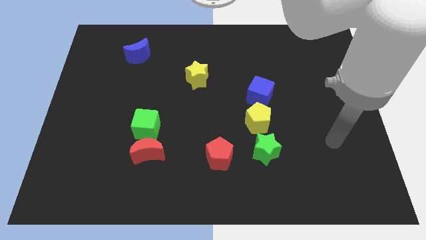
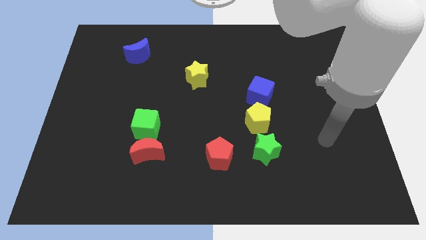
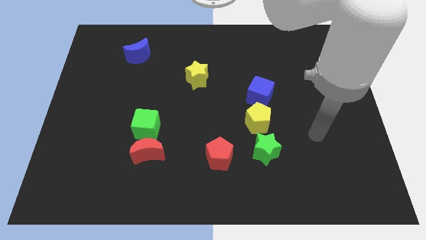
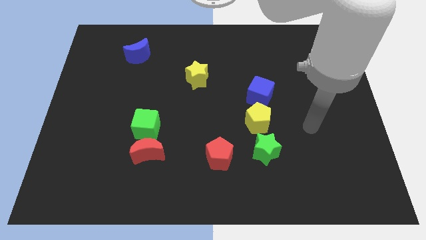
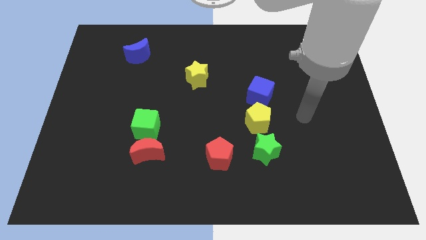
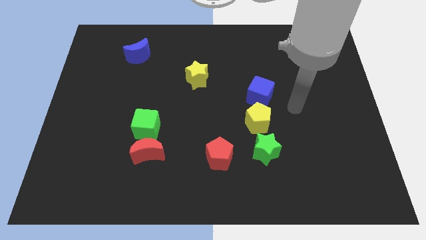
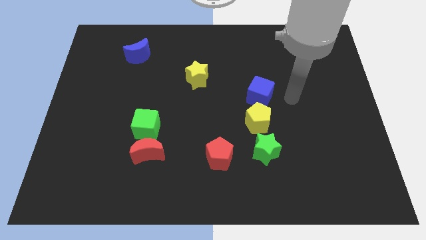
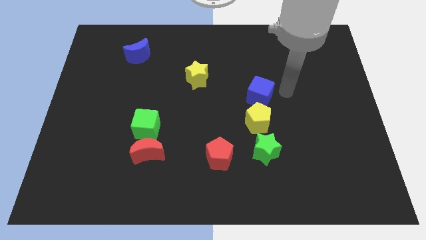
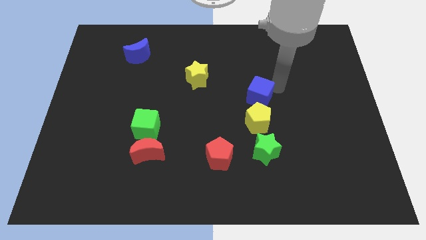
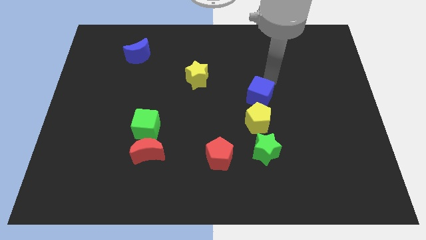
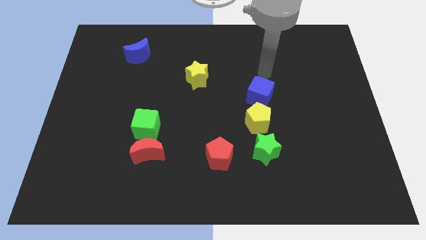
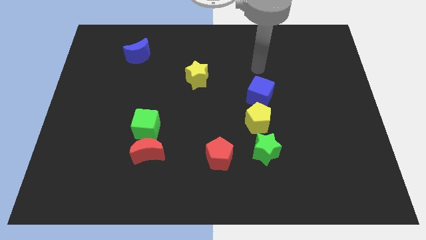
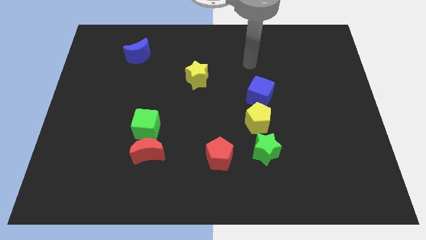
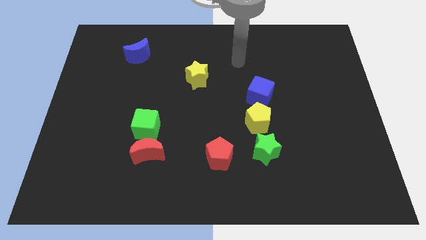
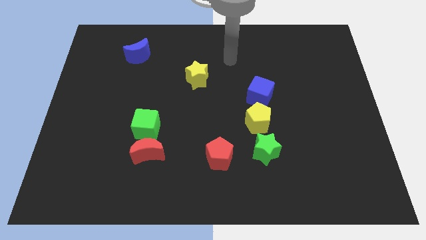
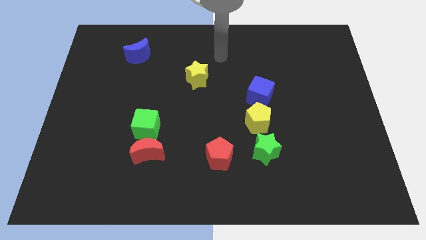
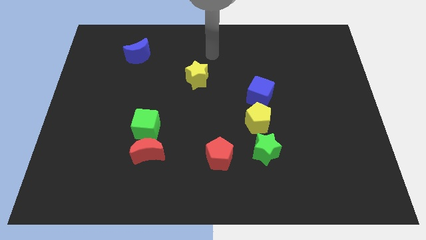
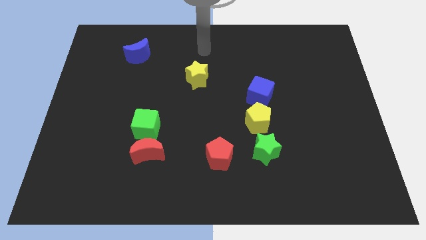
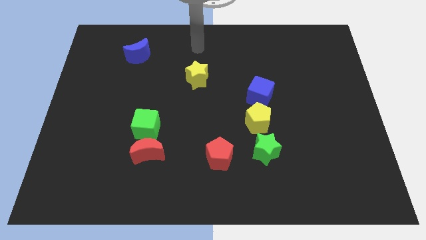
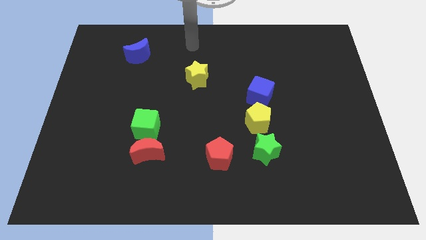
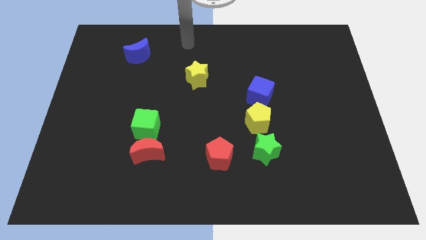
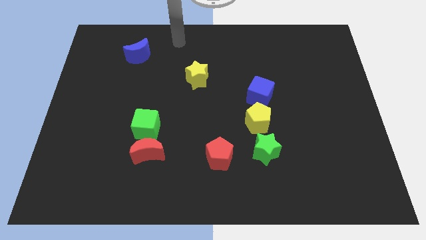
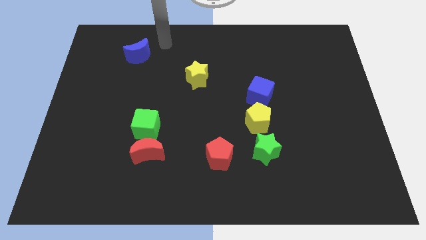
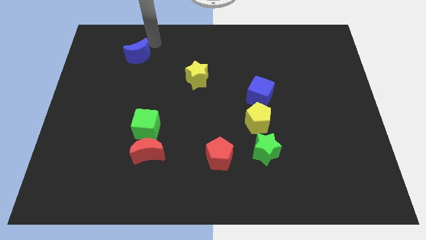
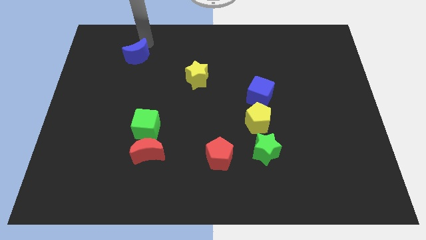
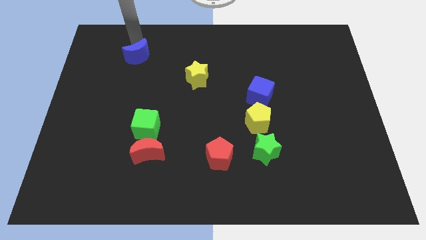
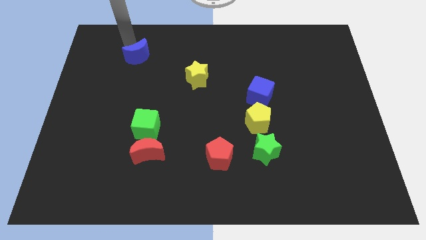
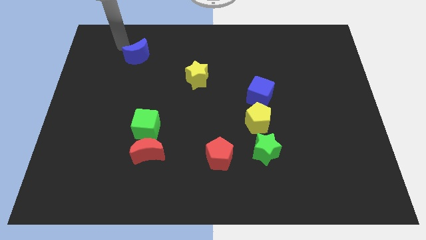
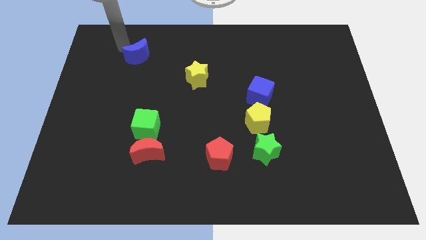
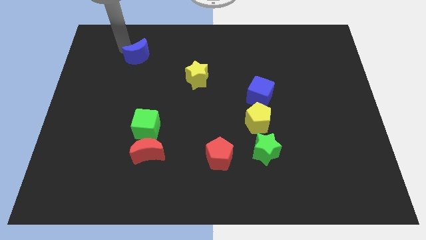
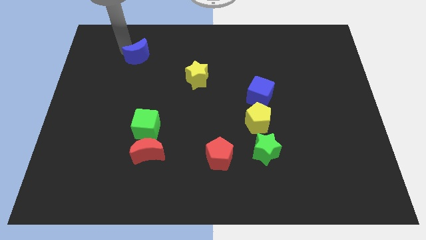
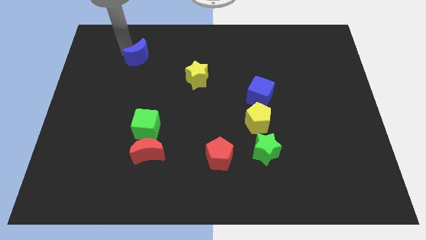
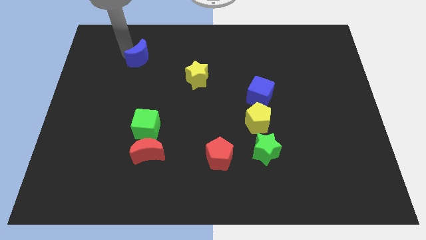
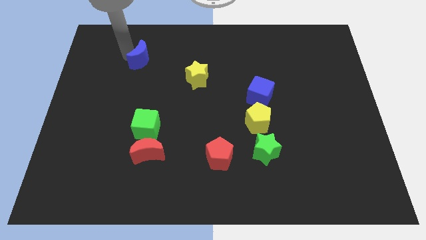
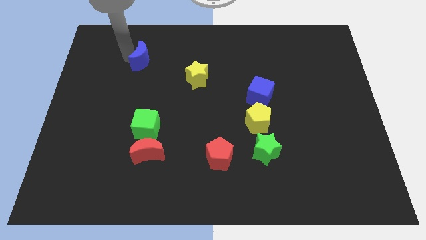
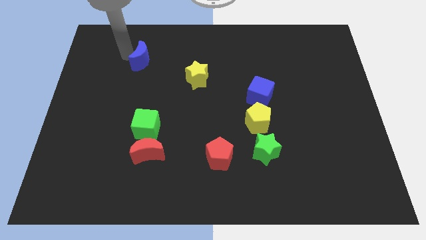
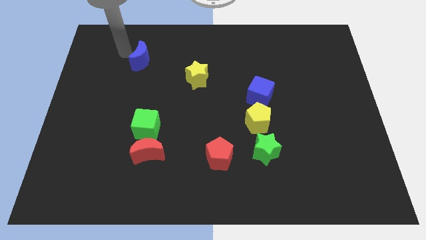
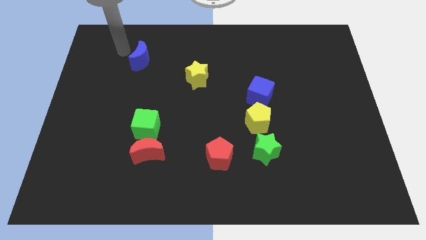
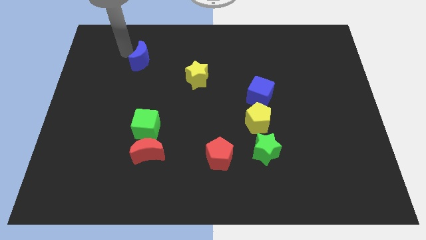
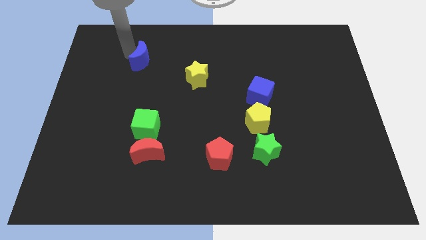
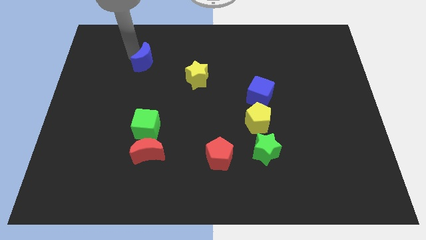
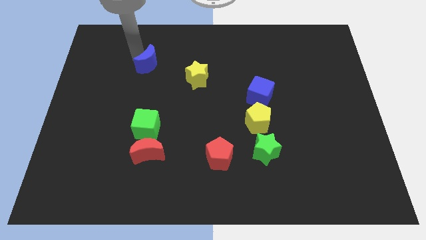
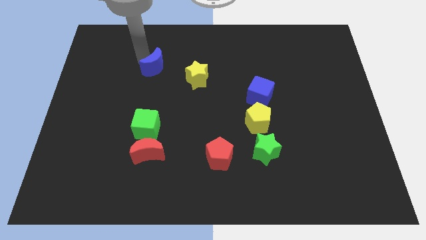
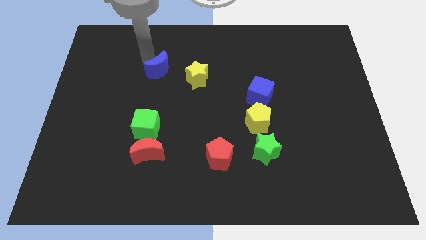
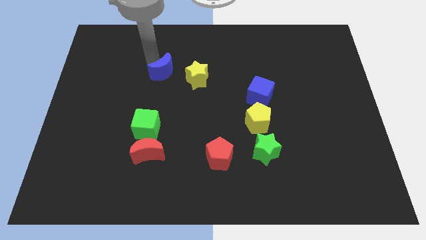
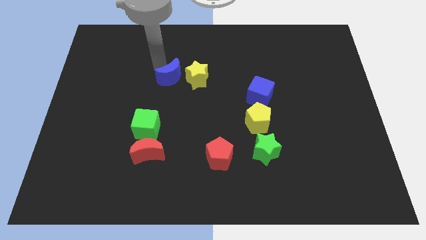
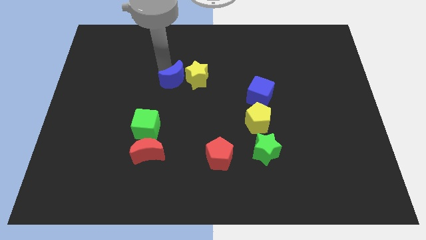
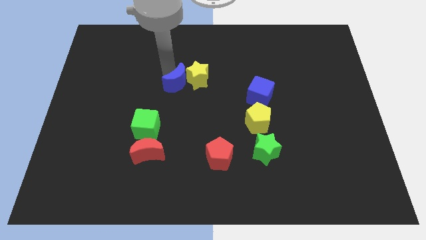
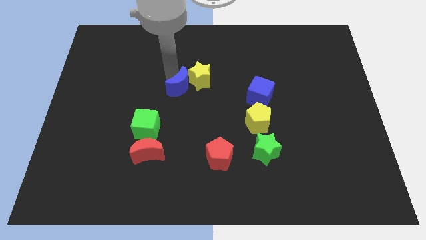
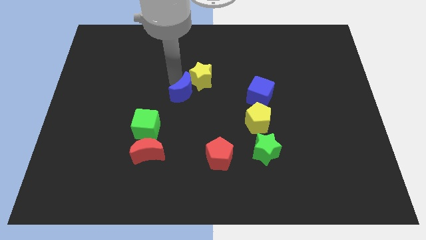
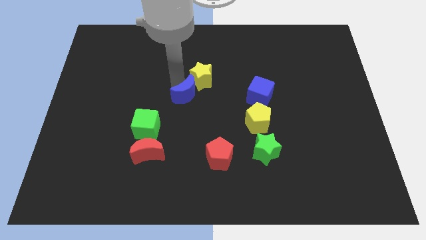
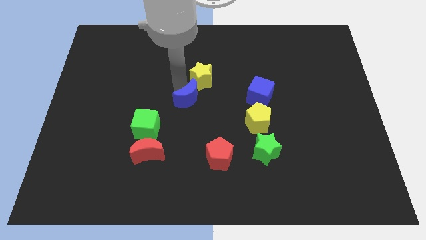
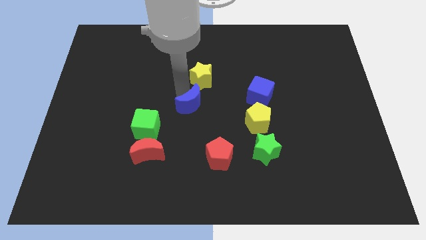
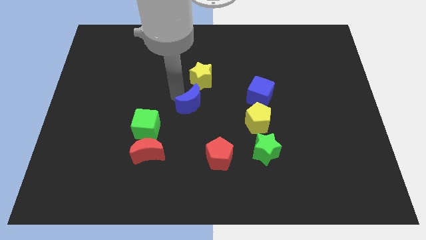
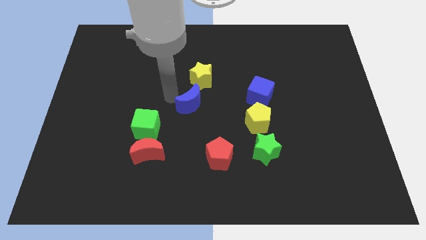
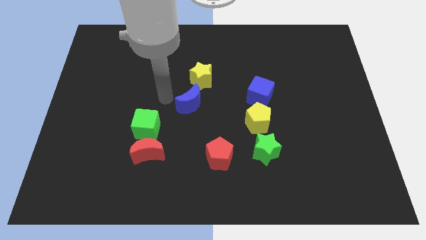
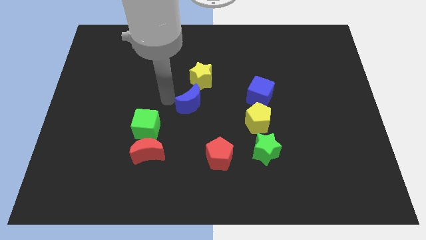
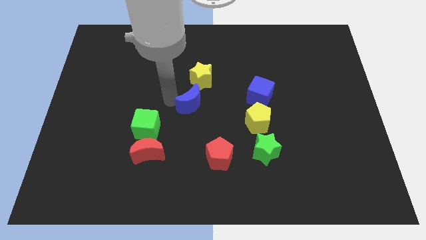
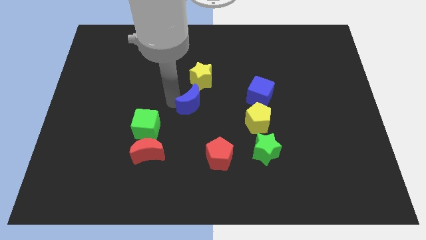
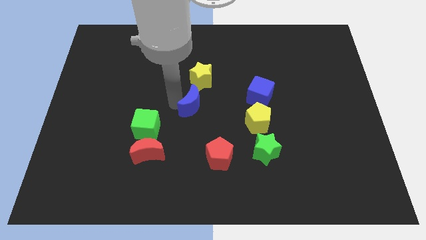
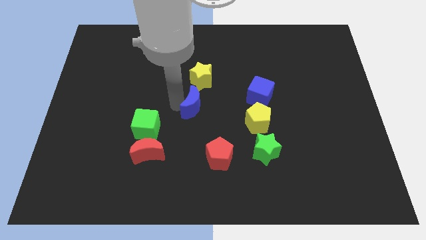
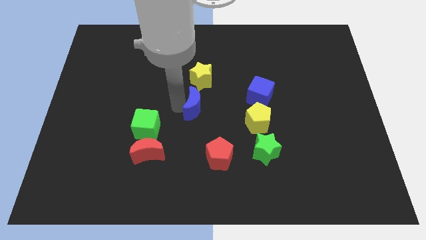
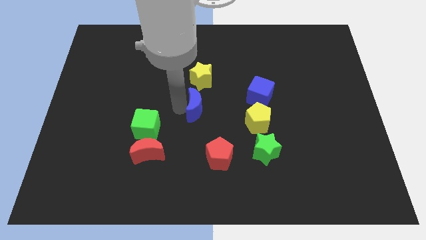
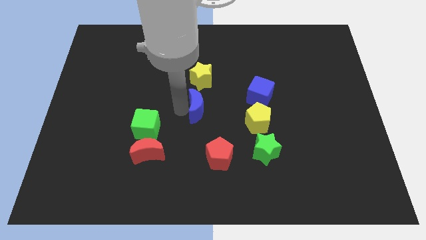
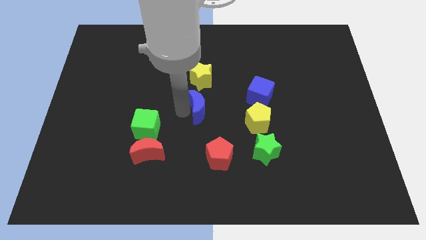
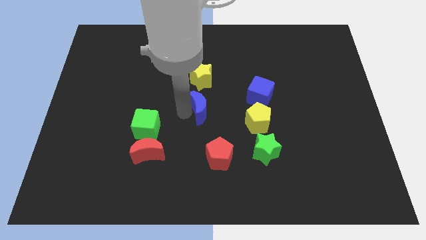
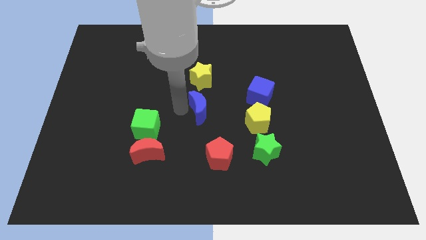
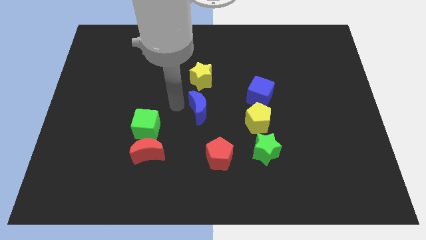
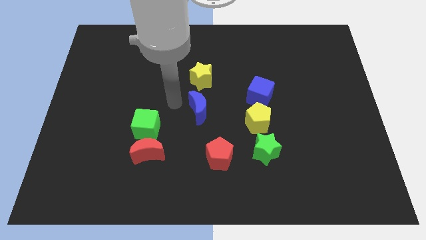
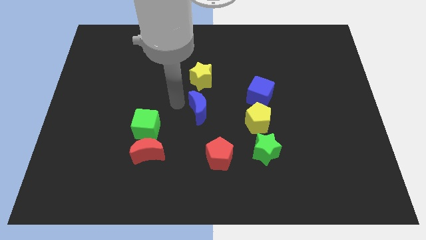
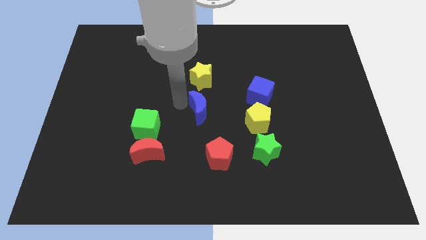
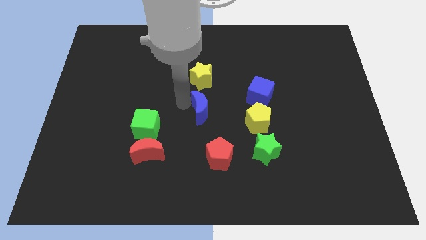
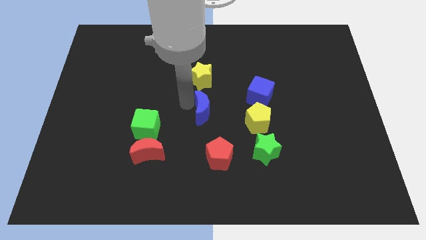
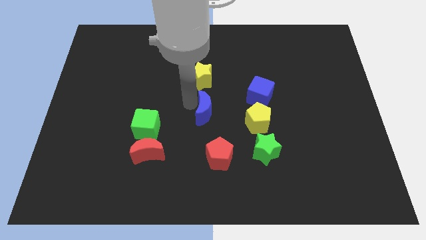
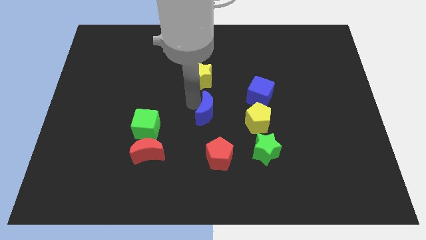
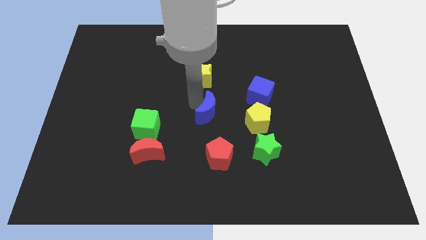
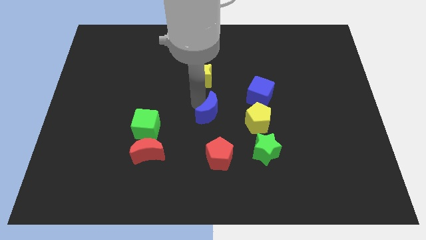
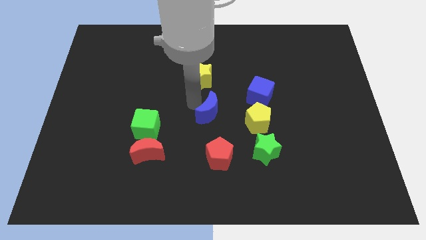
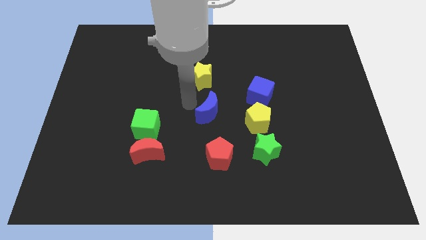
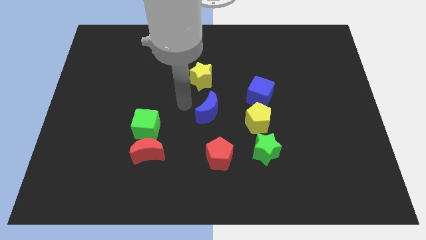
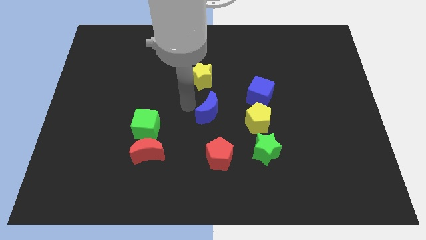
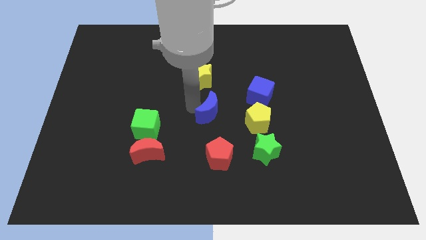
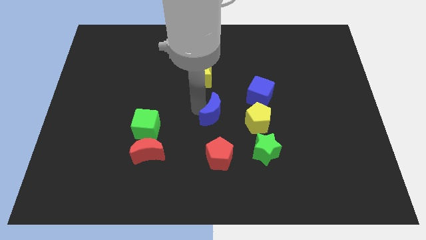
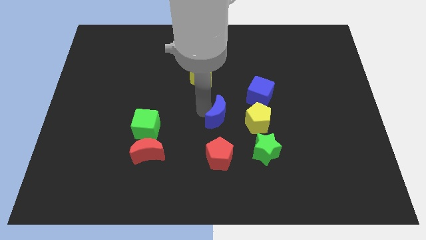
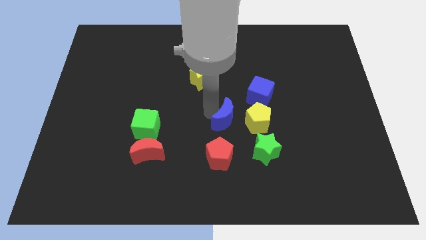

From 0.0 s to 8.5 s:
move the blue moon diagonally up and to the left of the green star
